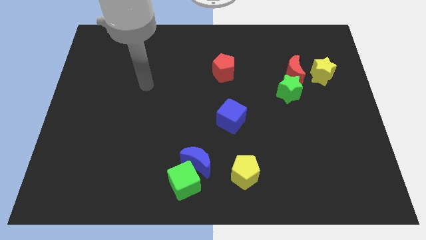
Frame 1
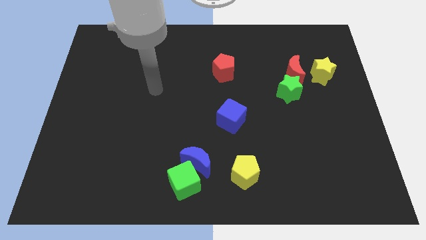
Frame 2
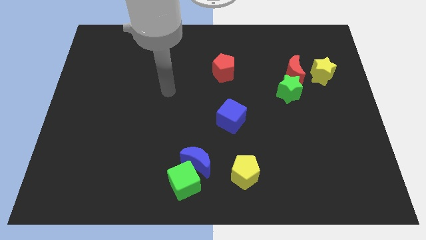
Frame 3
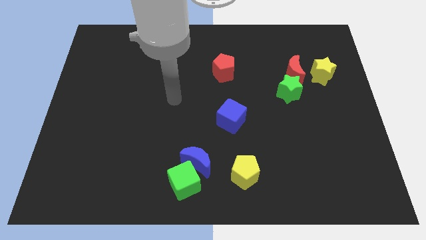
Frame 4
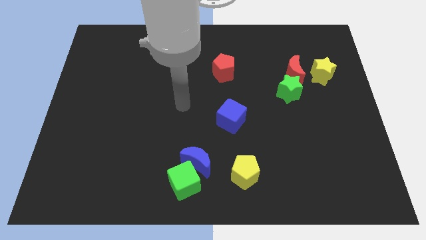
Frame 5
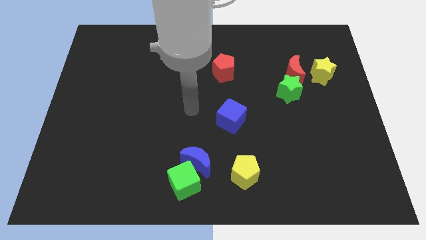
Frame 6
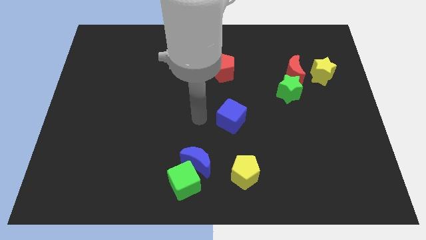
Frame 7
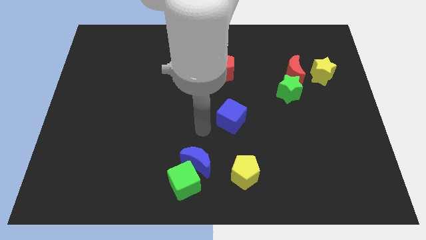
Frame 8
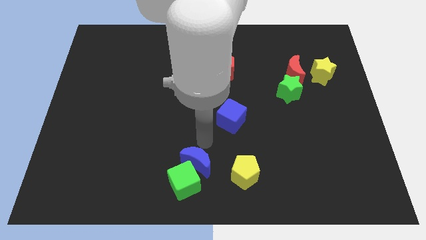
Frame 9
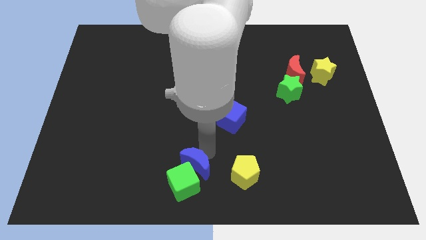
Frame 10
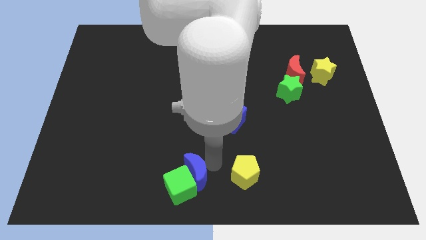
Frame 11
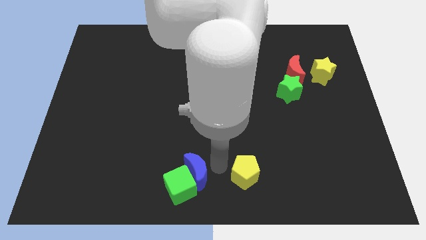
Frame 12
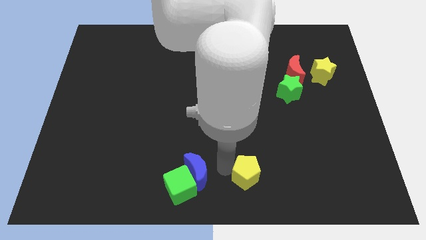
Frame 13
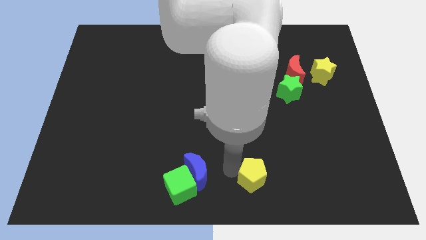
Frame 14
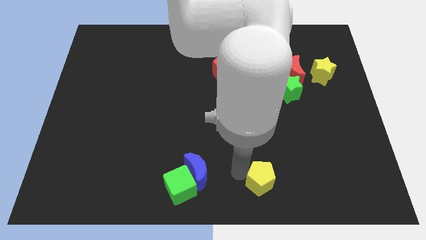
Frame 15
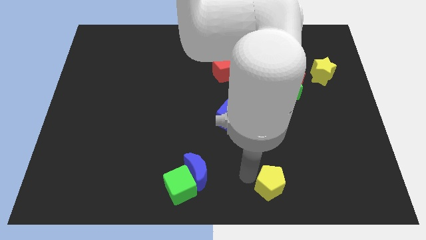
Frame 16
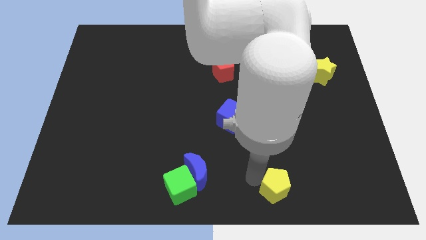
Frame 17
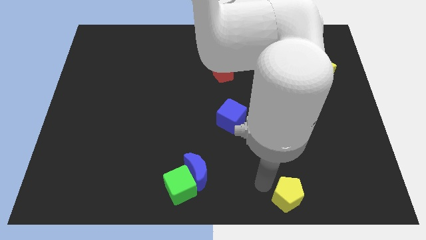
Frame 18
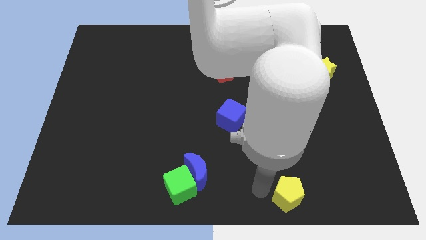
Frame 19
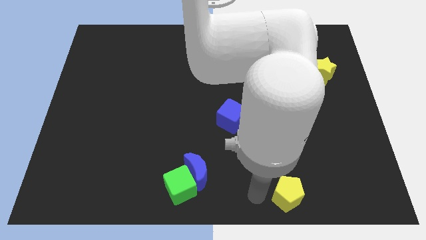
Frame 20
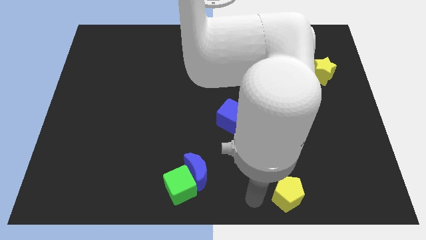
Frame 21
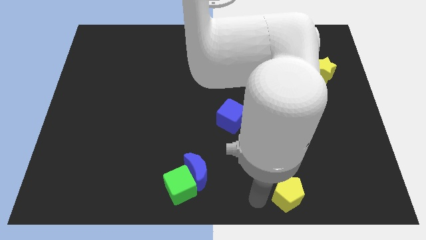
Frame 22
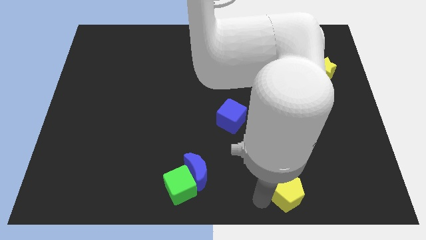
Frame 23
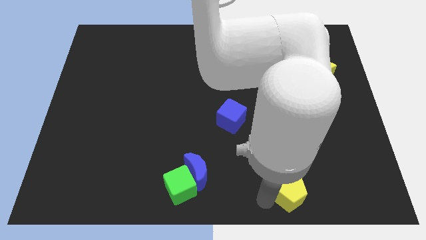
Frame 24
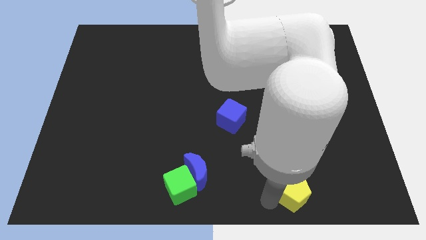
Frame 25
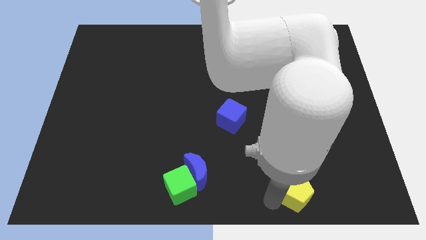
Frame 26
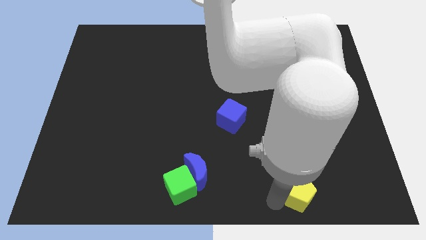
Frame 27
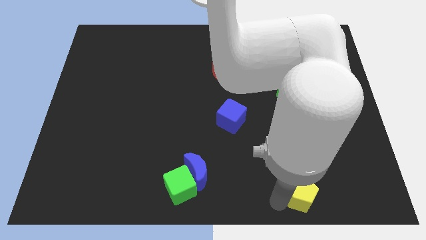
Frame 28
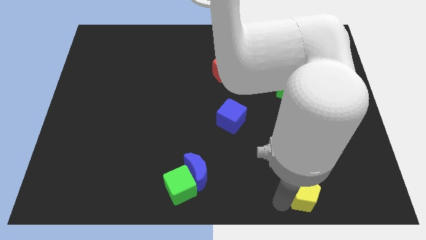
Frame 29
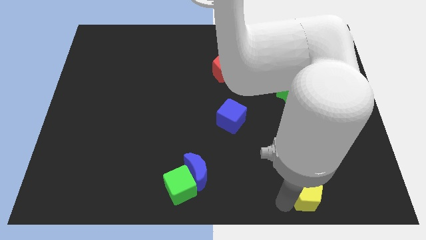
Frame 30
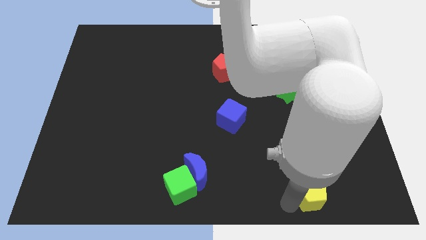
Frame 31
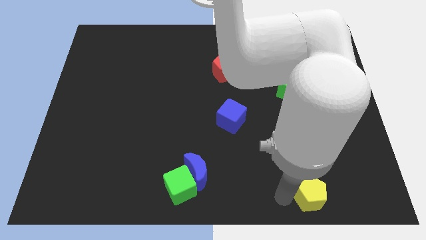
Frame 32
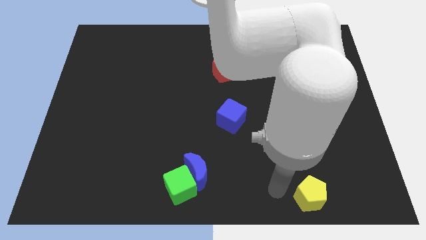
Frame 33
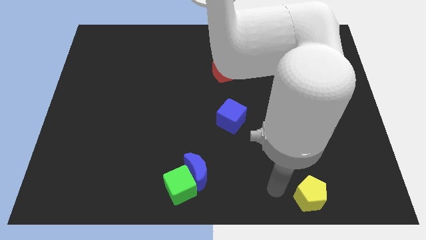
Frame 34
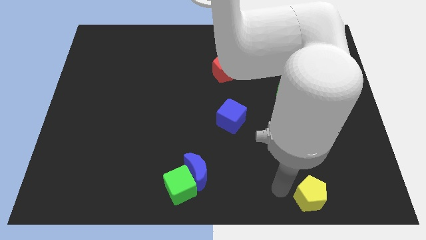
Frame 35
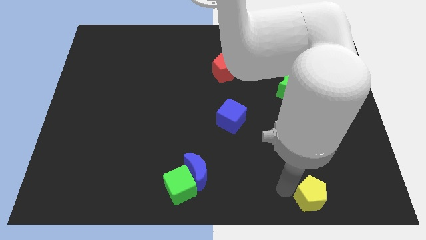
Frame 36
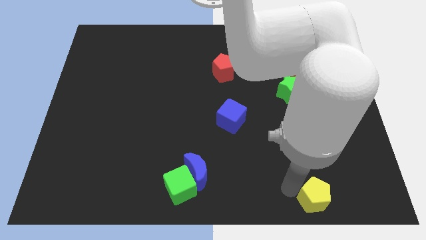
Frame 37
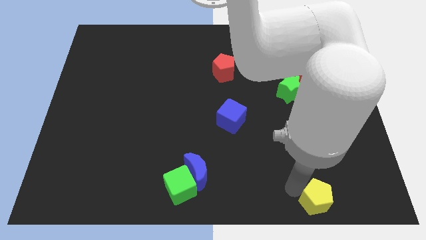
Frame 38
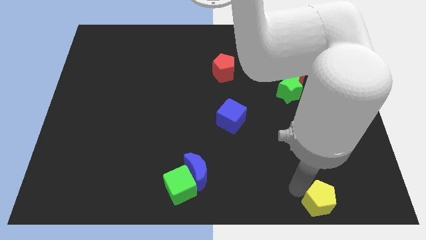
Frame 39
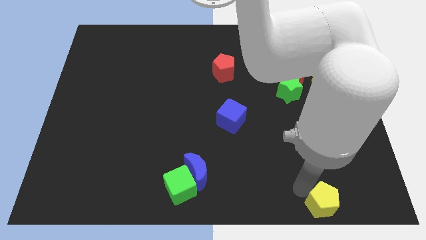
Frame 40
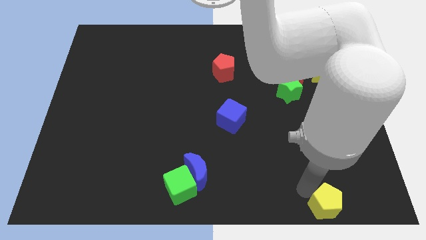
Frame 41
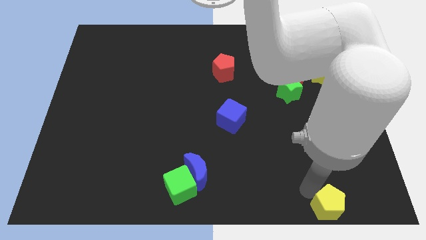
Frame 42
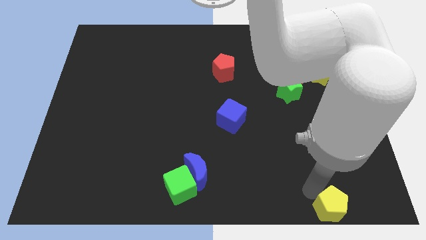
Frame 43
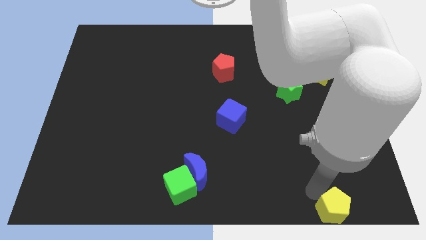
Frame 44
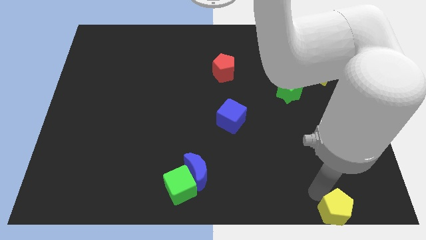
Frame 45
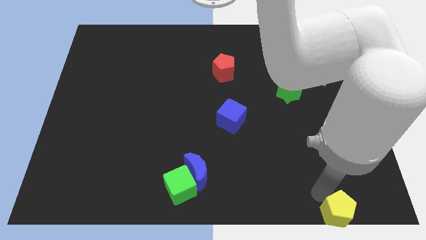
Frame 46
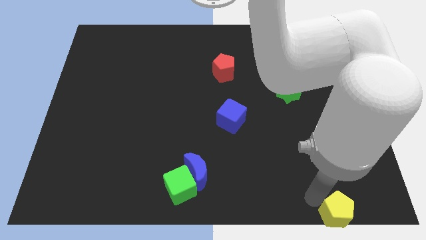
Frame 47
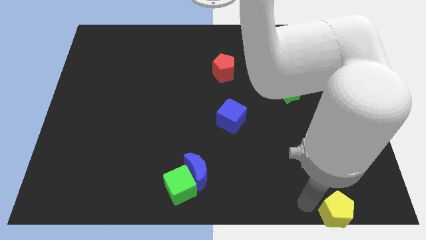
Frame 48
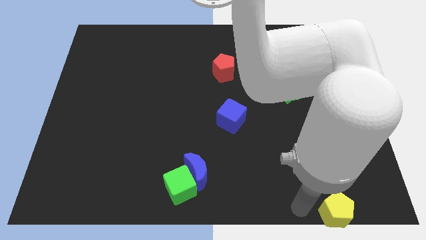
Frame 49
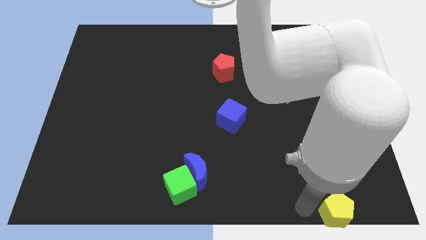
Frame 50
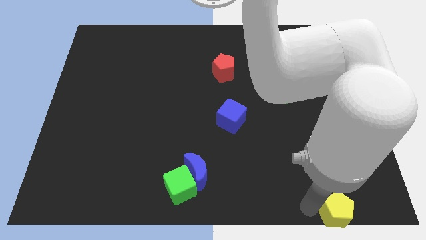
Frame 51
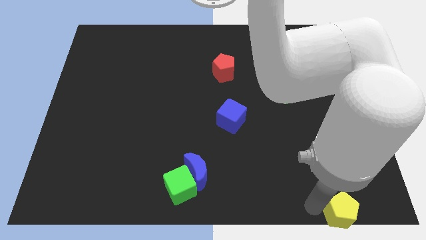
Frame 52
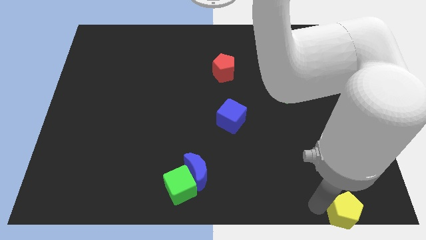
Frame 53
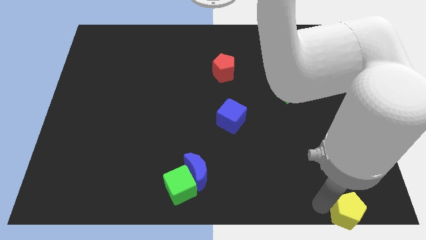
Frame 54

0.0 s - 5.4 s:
put the yellow pentagon to the bottom right corner

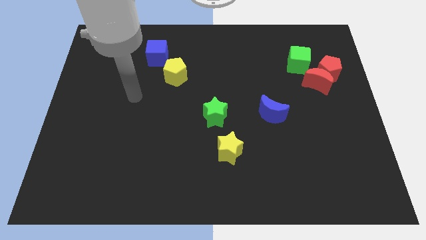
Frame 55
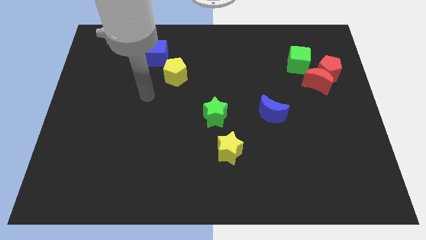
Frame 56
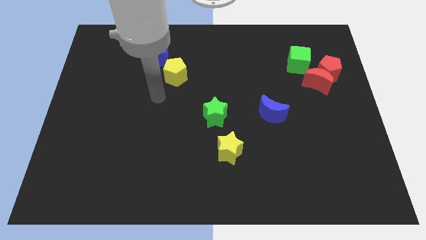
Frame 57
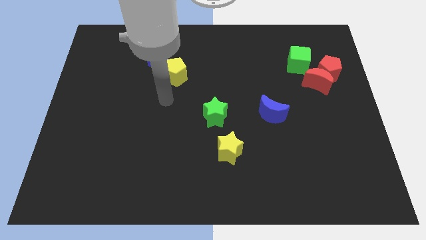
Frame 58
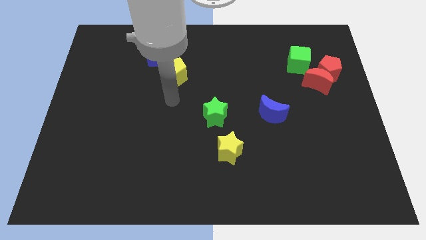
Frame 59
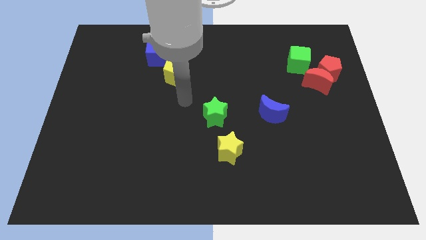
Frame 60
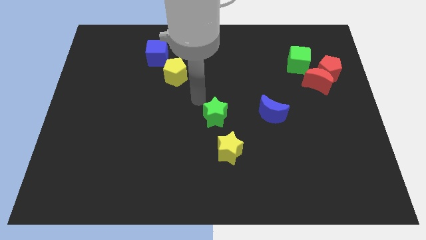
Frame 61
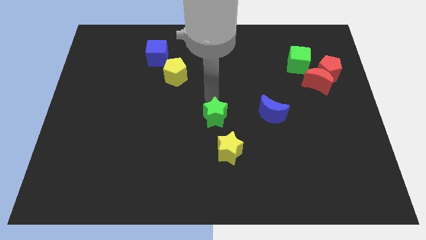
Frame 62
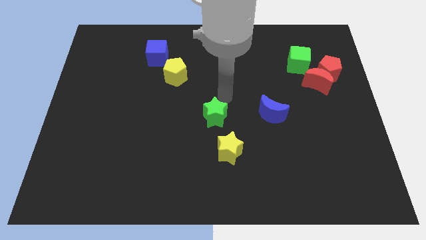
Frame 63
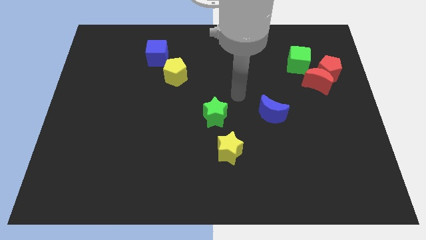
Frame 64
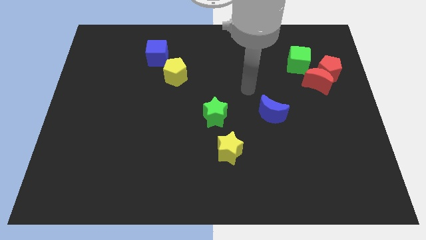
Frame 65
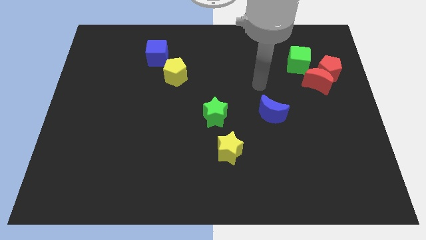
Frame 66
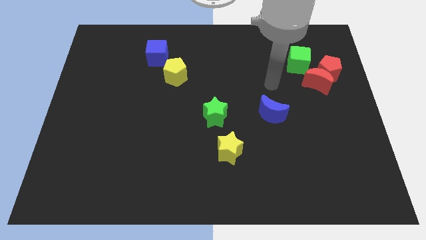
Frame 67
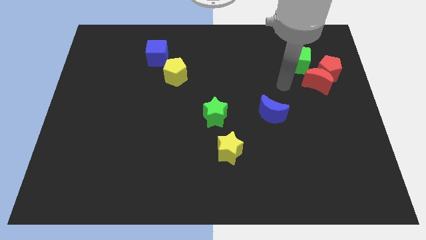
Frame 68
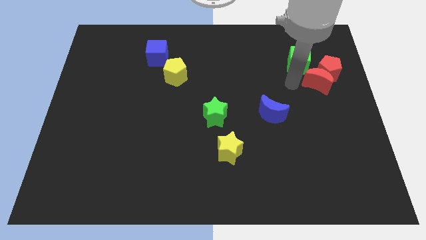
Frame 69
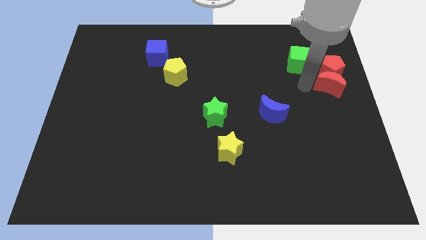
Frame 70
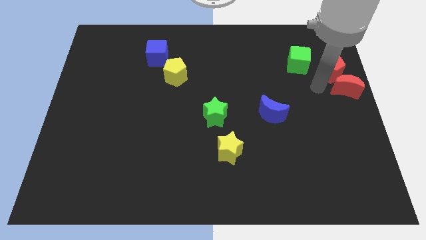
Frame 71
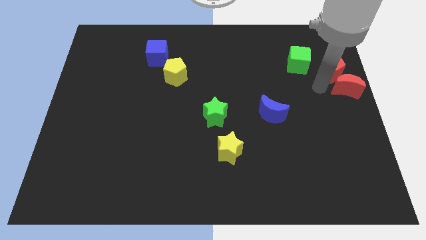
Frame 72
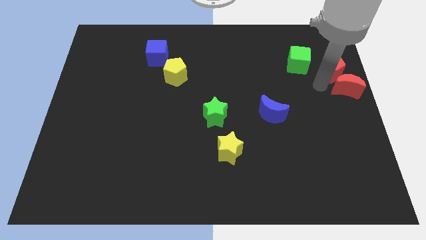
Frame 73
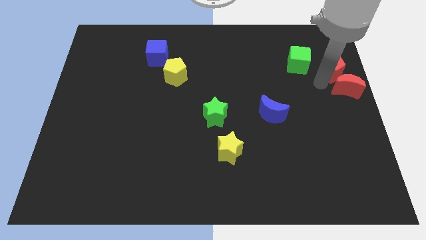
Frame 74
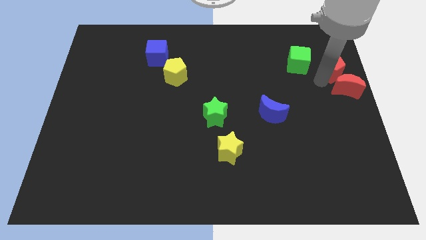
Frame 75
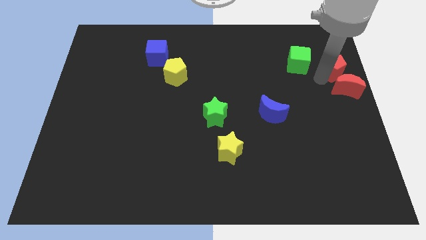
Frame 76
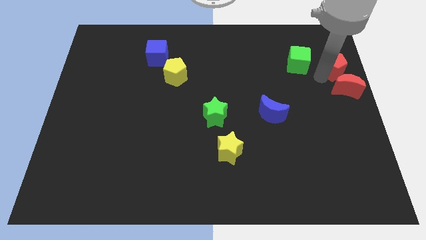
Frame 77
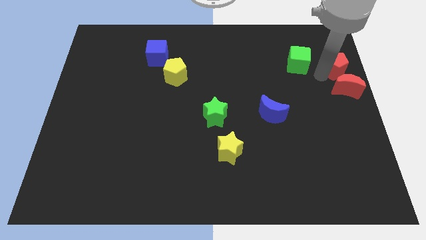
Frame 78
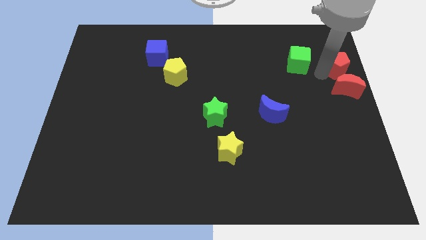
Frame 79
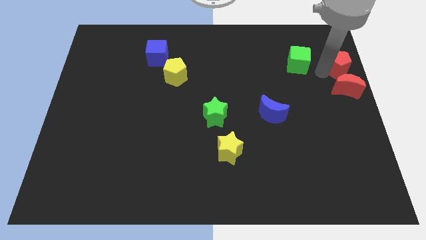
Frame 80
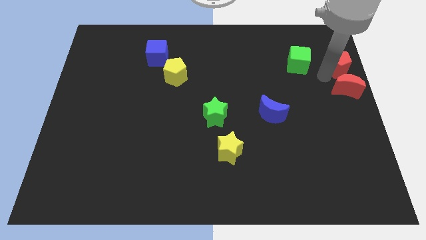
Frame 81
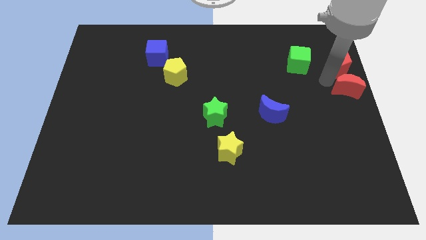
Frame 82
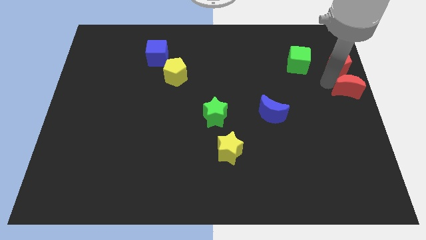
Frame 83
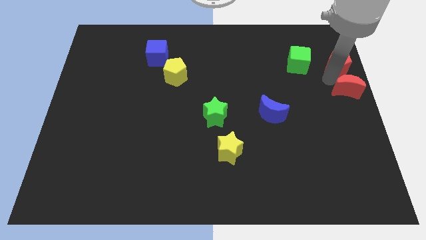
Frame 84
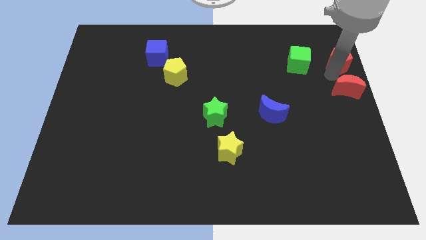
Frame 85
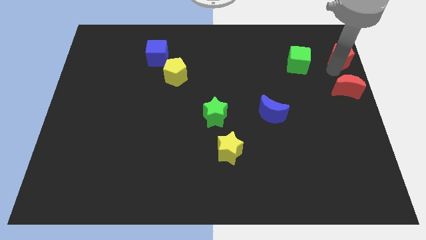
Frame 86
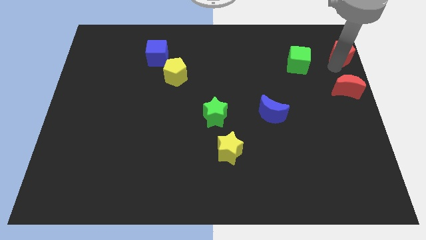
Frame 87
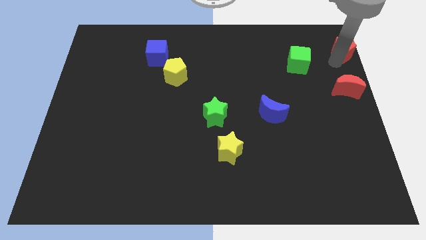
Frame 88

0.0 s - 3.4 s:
put the red pentagon to the top right
